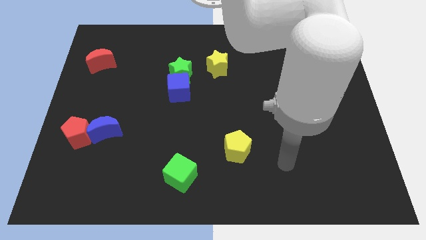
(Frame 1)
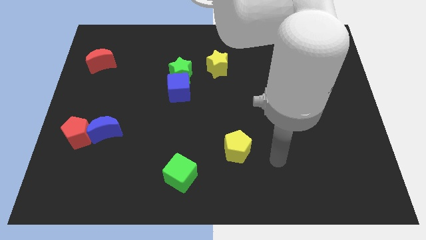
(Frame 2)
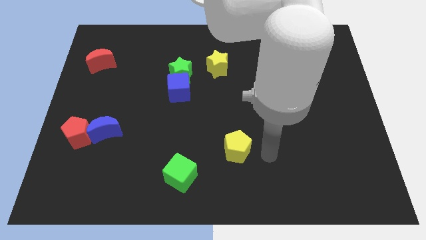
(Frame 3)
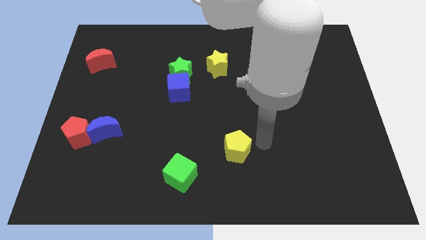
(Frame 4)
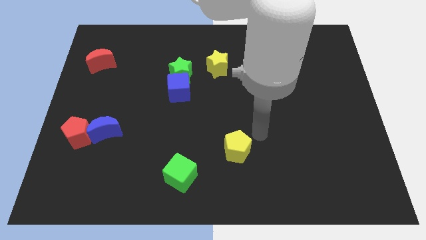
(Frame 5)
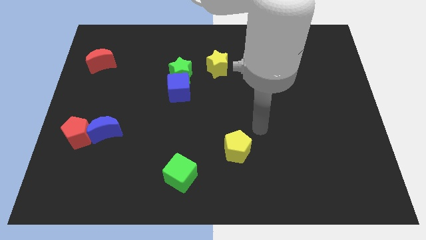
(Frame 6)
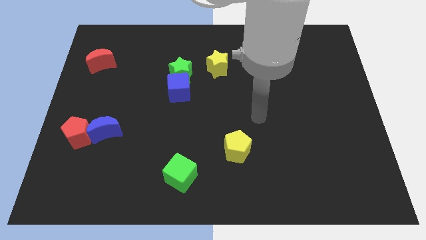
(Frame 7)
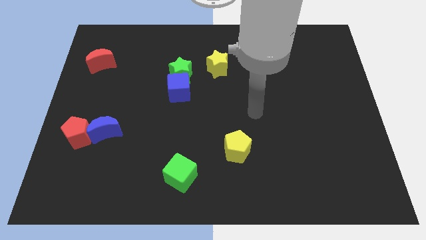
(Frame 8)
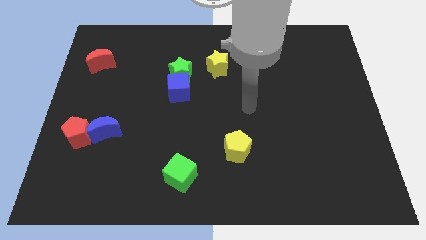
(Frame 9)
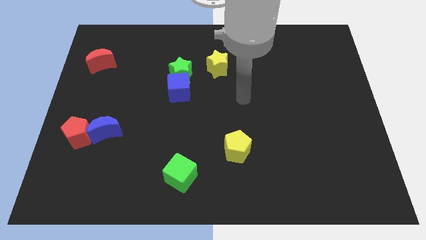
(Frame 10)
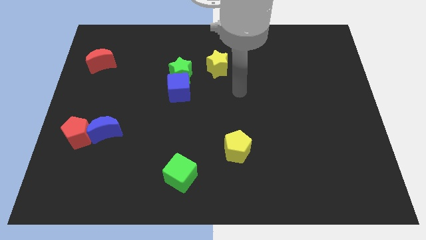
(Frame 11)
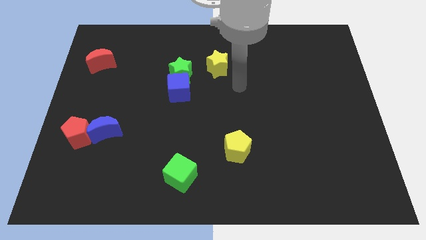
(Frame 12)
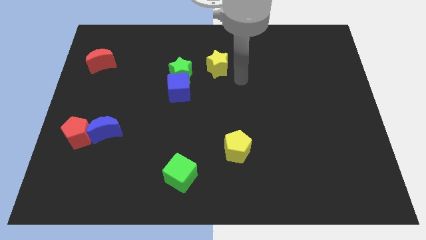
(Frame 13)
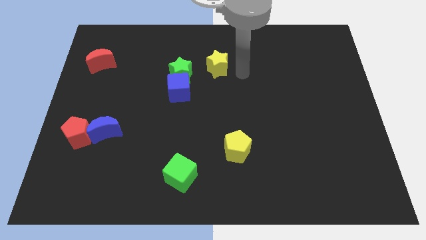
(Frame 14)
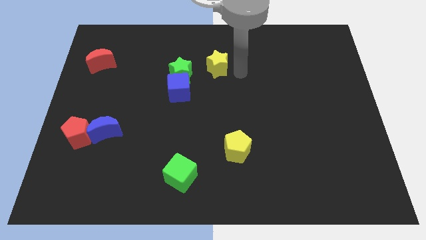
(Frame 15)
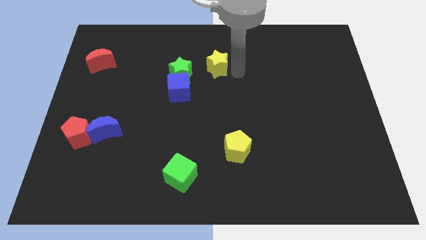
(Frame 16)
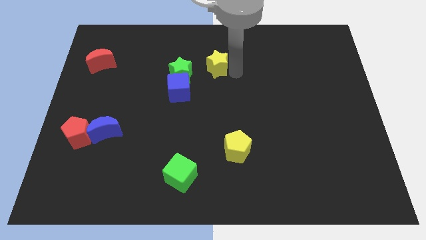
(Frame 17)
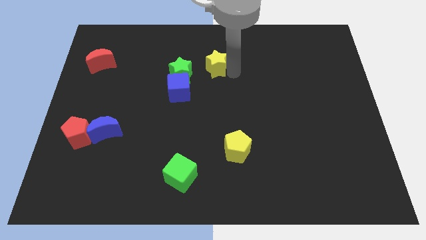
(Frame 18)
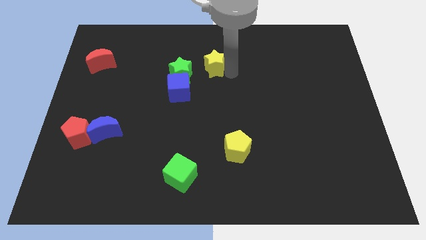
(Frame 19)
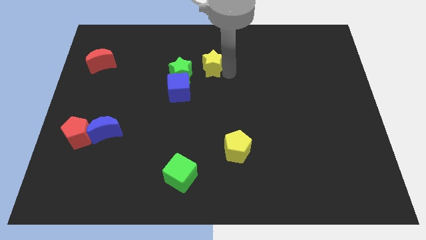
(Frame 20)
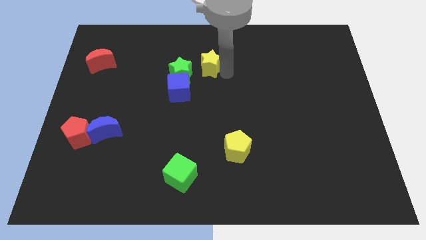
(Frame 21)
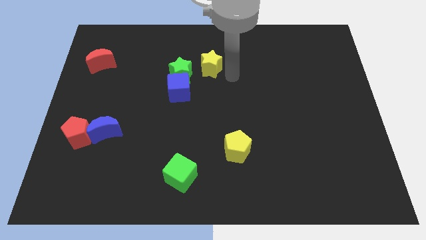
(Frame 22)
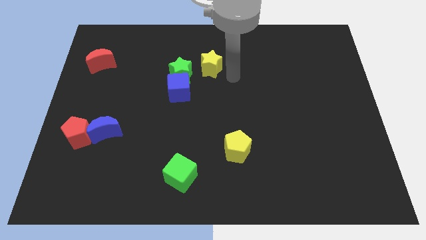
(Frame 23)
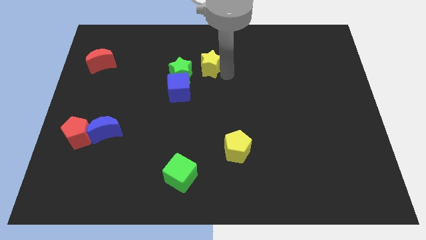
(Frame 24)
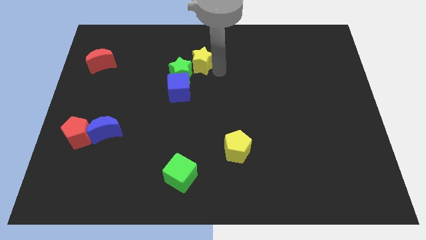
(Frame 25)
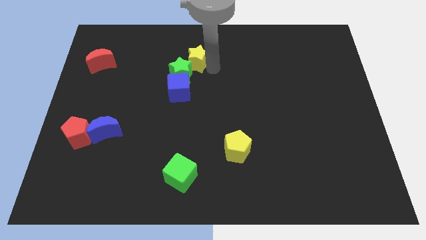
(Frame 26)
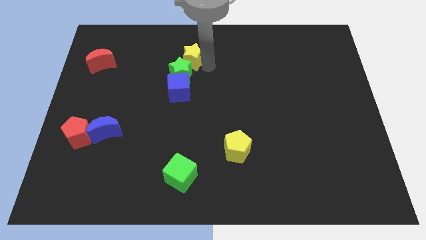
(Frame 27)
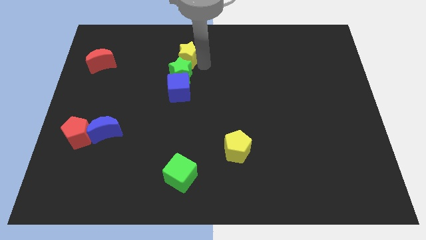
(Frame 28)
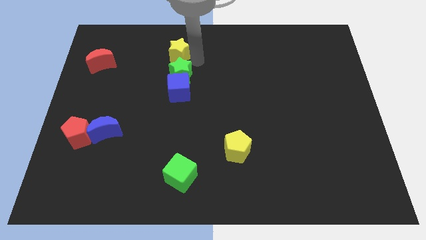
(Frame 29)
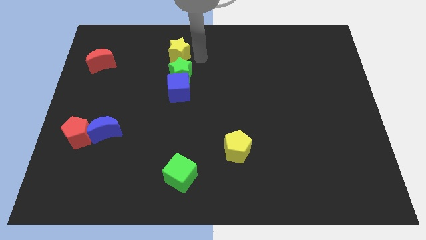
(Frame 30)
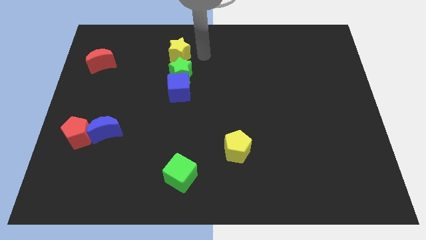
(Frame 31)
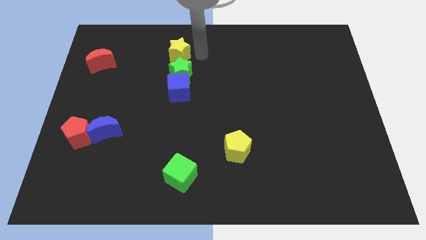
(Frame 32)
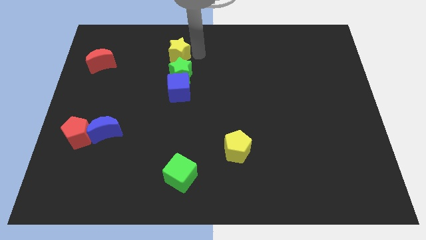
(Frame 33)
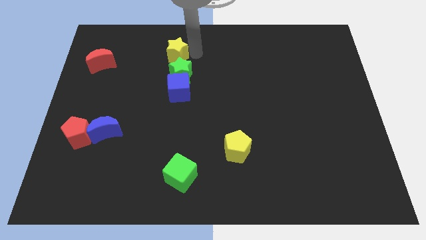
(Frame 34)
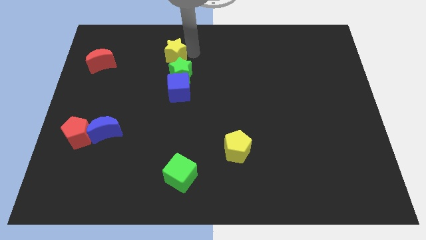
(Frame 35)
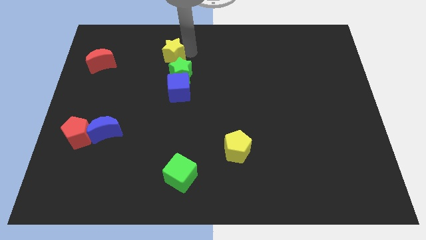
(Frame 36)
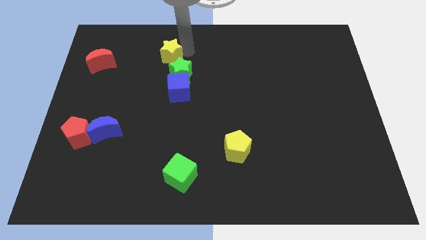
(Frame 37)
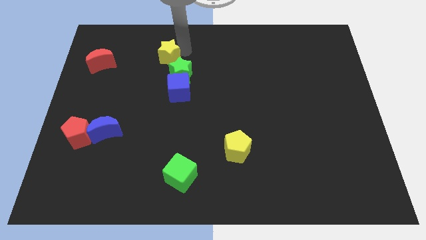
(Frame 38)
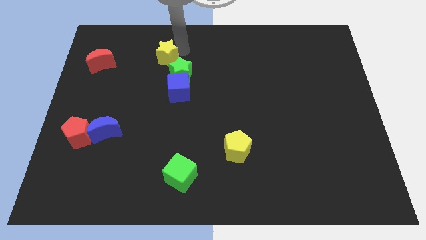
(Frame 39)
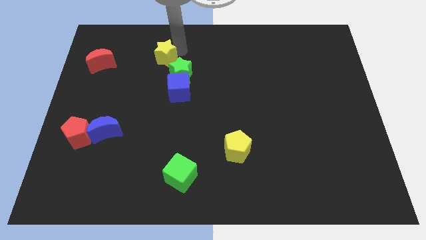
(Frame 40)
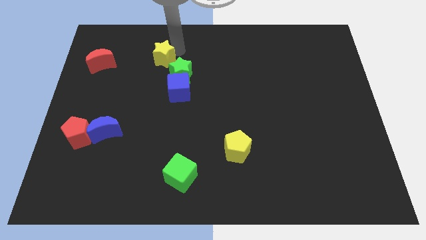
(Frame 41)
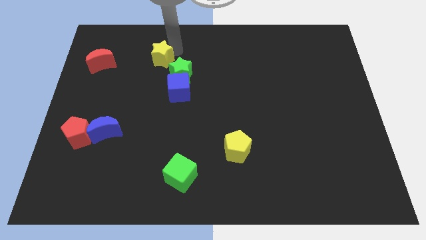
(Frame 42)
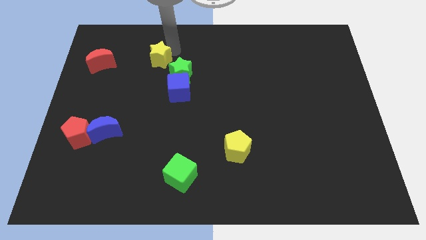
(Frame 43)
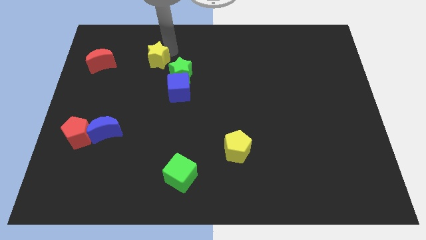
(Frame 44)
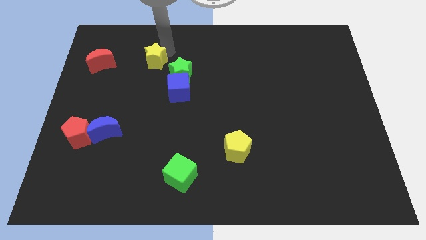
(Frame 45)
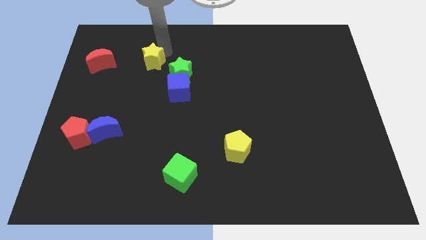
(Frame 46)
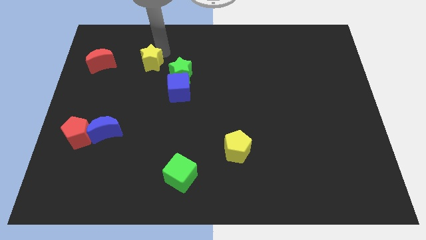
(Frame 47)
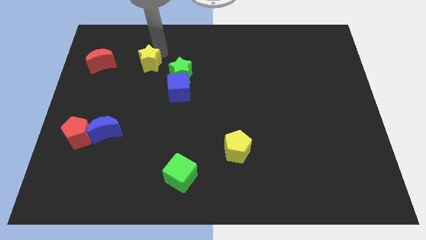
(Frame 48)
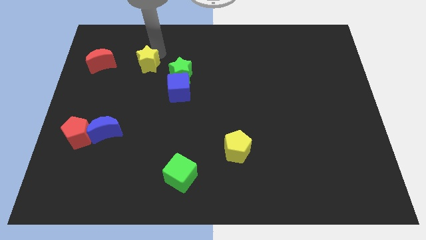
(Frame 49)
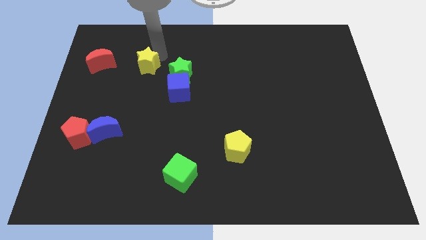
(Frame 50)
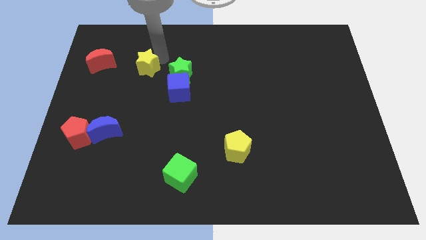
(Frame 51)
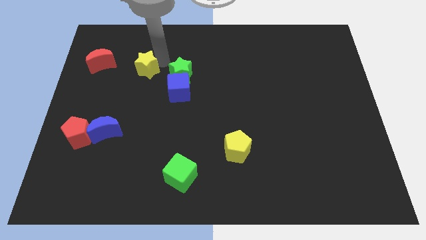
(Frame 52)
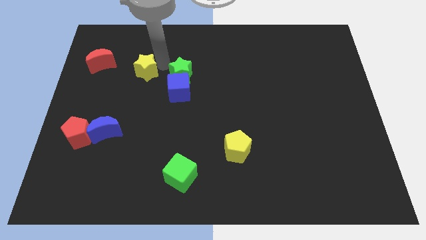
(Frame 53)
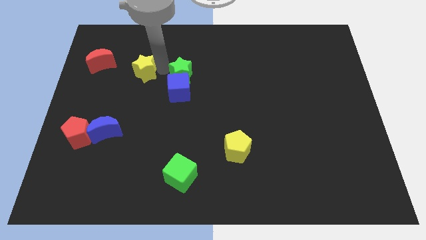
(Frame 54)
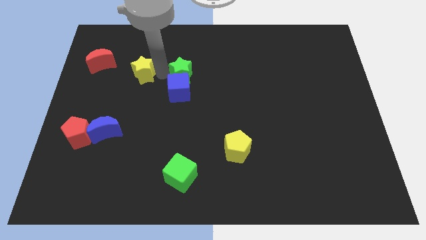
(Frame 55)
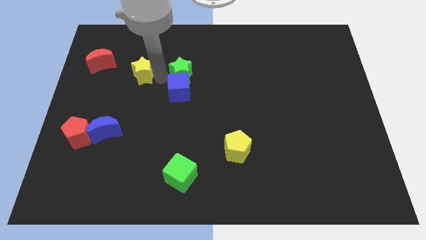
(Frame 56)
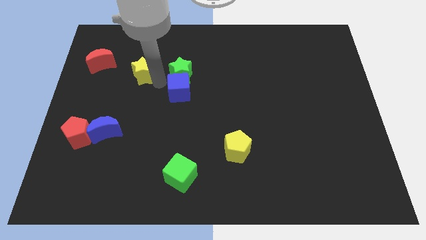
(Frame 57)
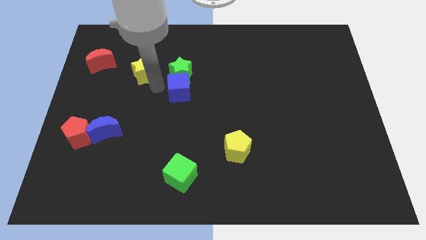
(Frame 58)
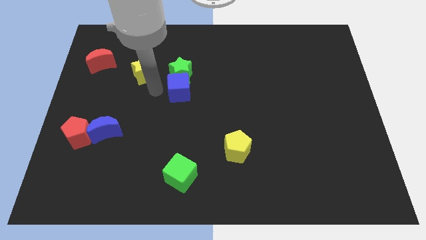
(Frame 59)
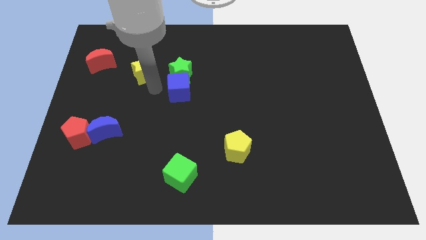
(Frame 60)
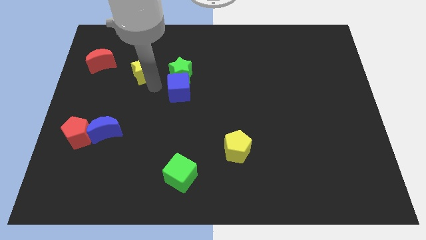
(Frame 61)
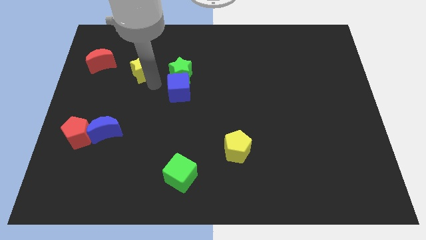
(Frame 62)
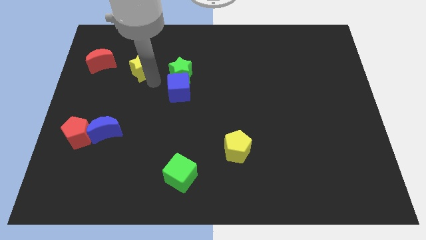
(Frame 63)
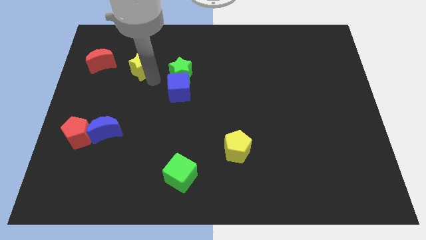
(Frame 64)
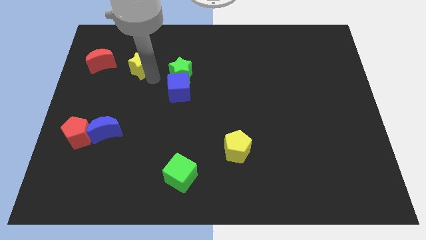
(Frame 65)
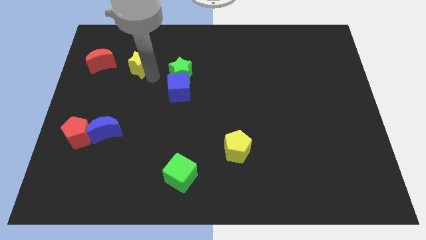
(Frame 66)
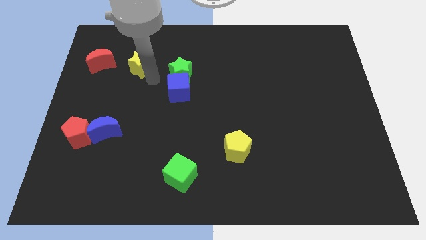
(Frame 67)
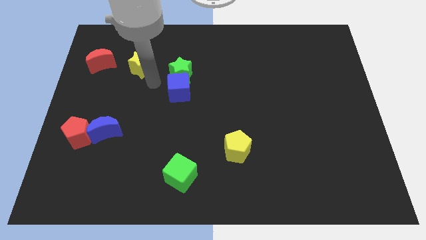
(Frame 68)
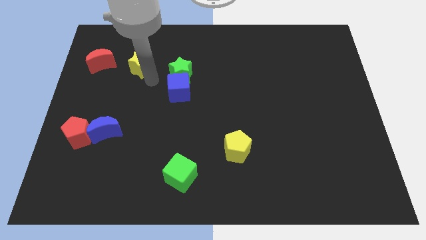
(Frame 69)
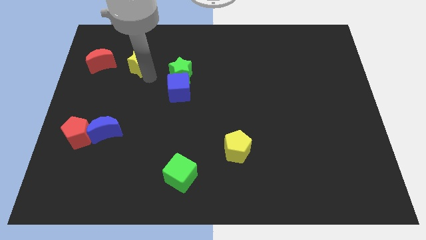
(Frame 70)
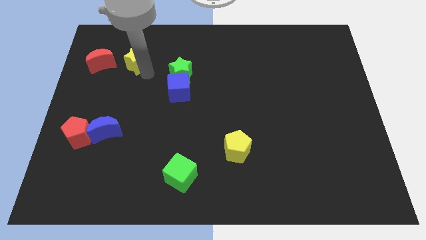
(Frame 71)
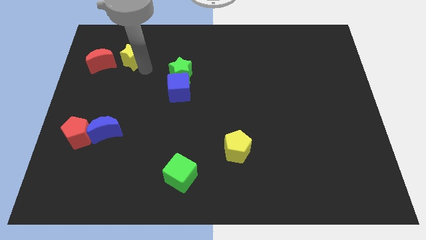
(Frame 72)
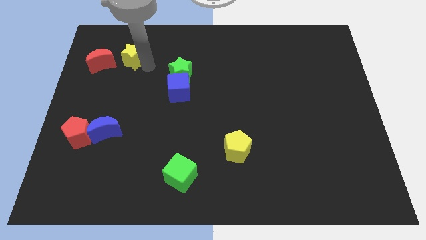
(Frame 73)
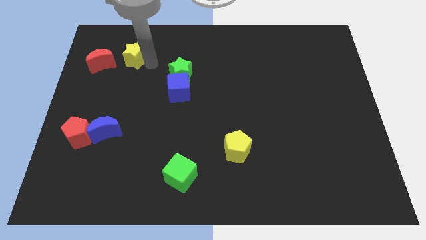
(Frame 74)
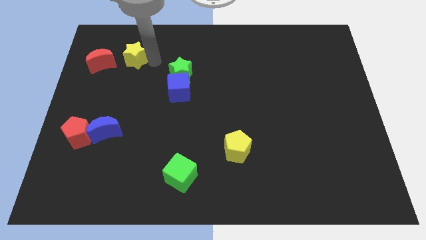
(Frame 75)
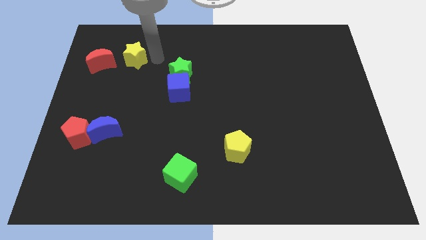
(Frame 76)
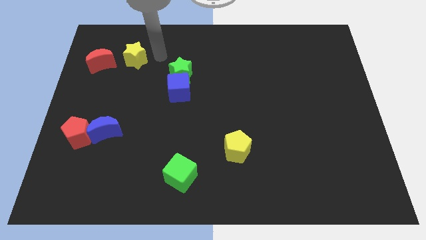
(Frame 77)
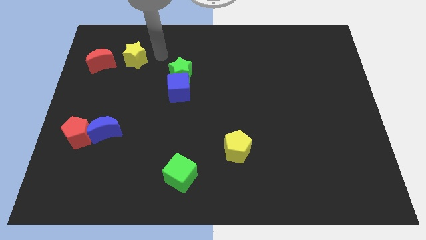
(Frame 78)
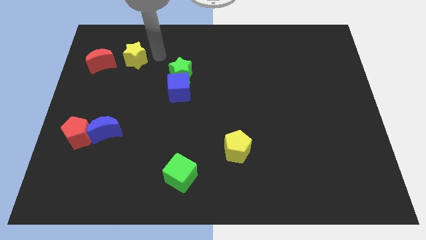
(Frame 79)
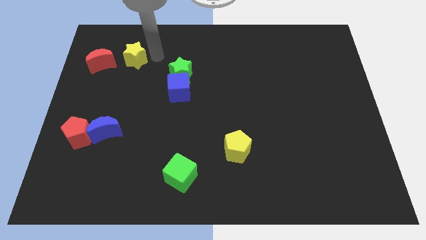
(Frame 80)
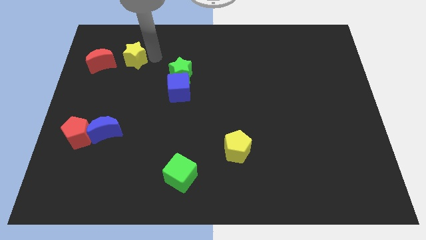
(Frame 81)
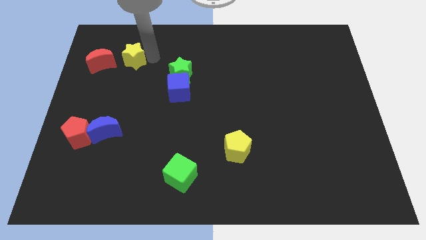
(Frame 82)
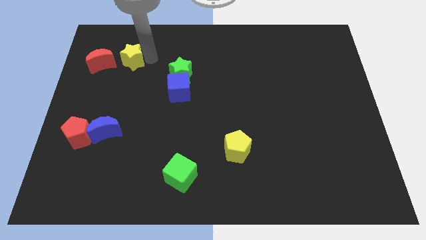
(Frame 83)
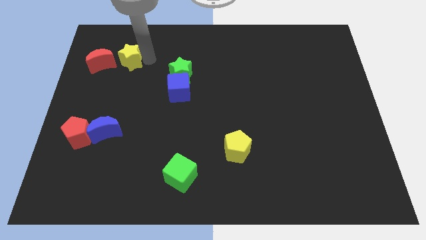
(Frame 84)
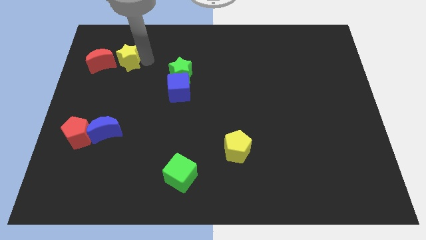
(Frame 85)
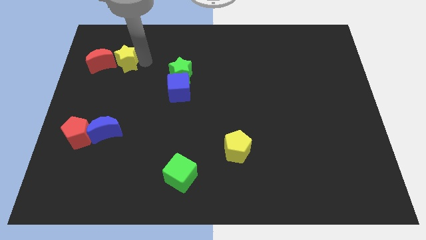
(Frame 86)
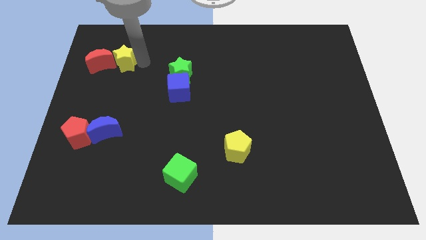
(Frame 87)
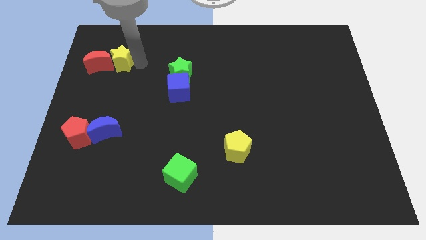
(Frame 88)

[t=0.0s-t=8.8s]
move the yellow star to the red moon

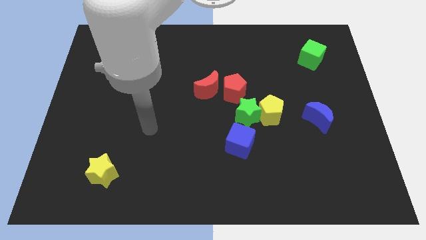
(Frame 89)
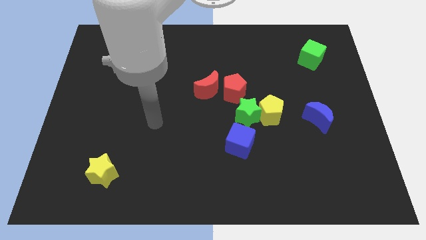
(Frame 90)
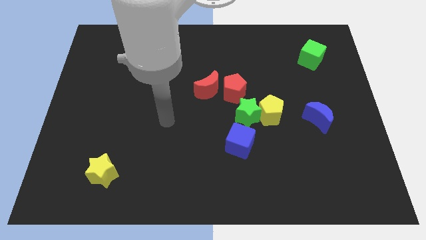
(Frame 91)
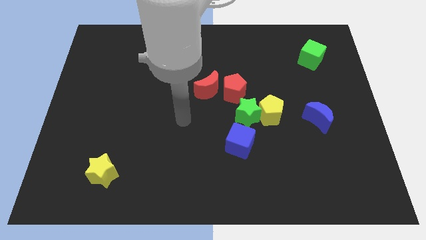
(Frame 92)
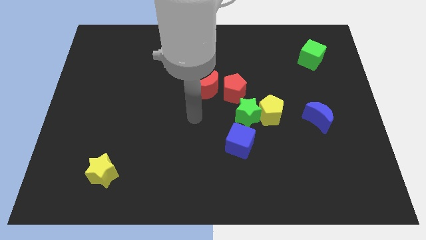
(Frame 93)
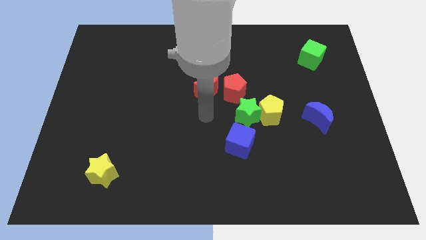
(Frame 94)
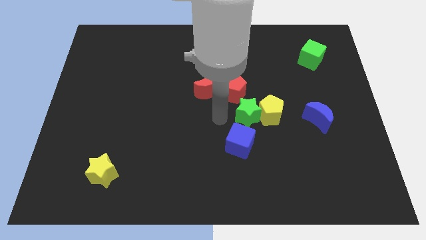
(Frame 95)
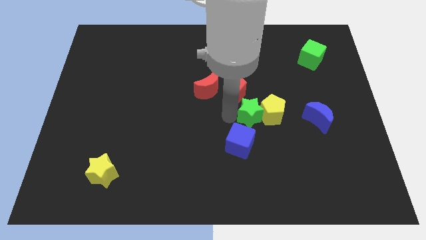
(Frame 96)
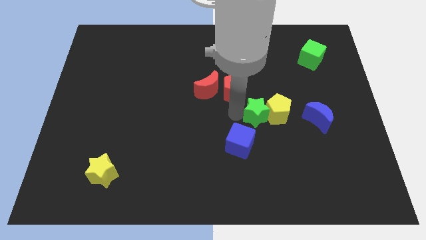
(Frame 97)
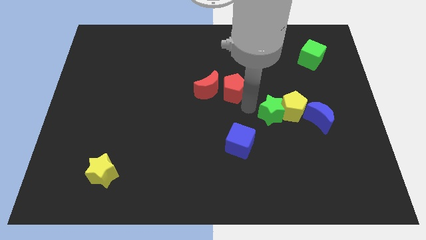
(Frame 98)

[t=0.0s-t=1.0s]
put the yellow pentagon to the blue moon
